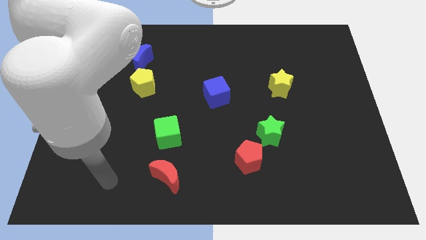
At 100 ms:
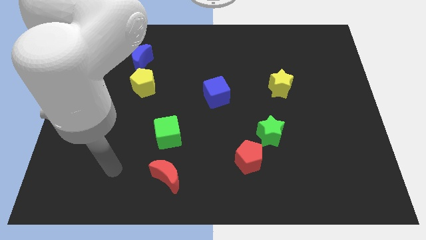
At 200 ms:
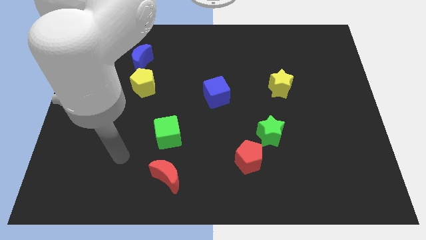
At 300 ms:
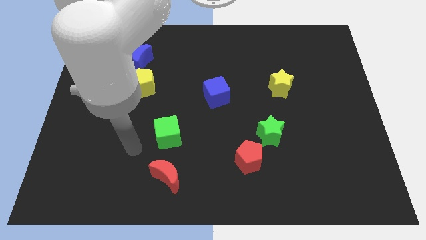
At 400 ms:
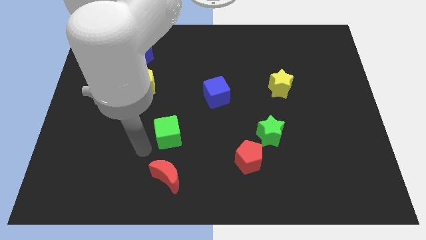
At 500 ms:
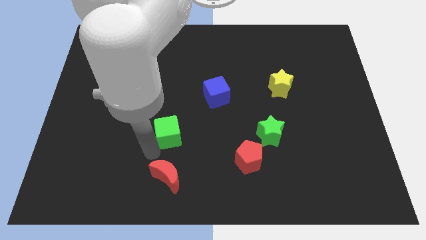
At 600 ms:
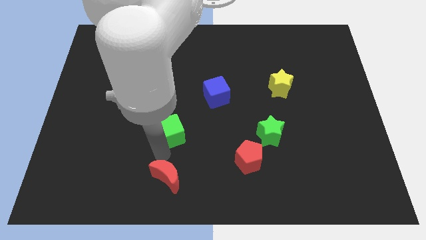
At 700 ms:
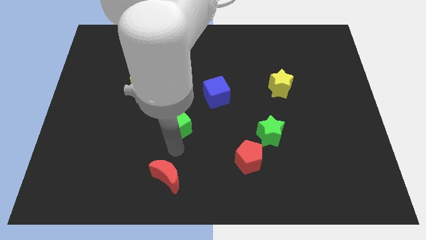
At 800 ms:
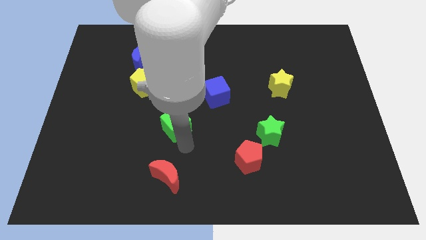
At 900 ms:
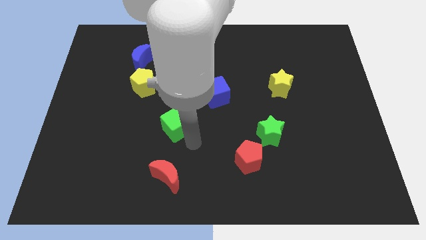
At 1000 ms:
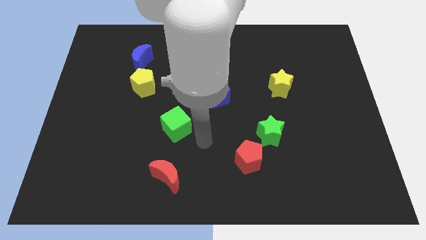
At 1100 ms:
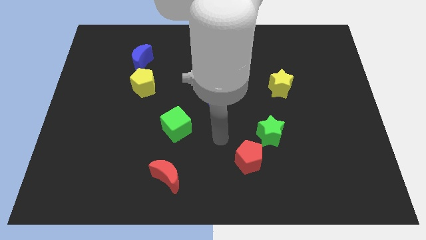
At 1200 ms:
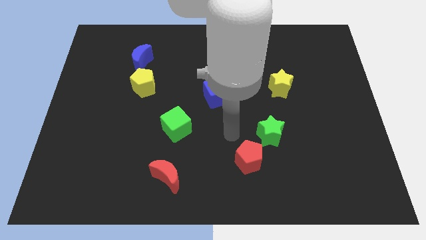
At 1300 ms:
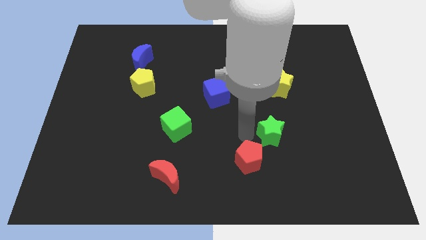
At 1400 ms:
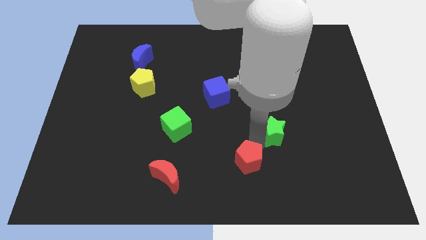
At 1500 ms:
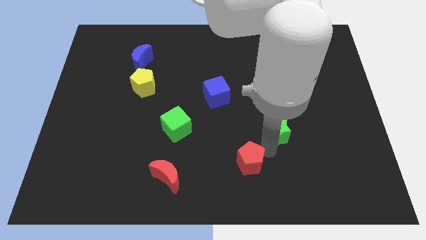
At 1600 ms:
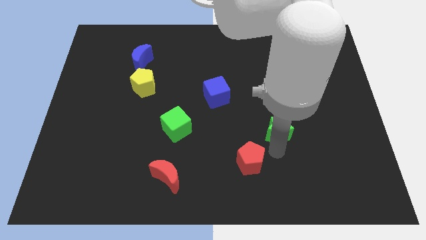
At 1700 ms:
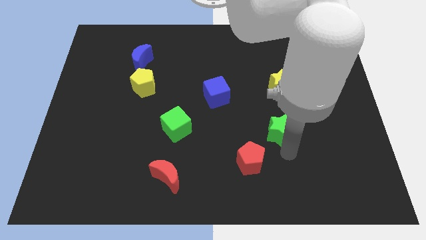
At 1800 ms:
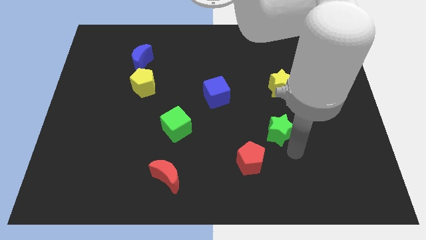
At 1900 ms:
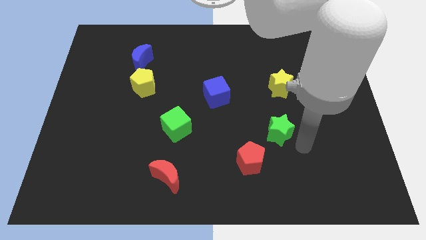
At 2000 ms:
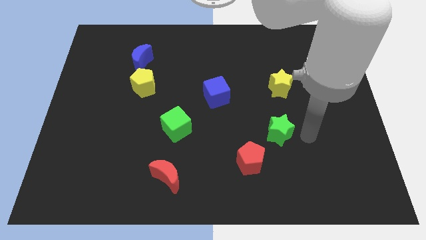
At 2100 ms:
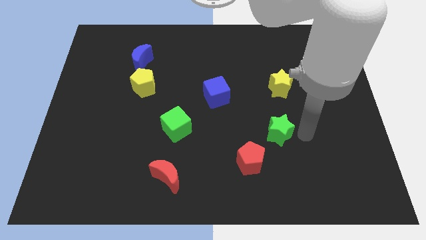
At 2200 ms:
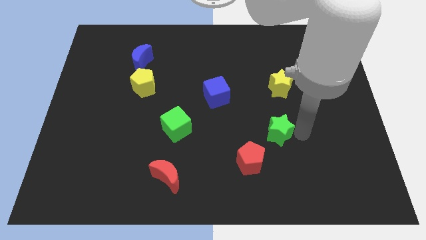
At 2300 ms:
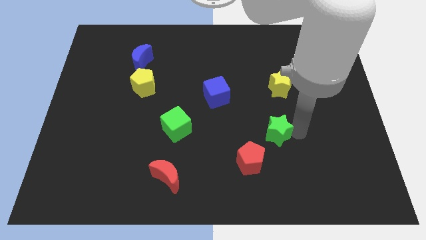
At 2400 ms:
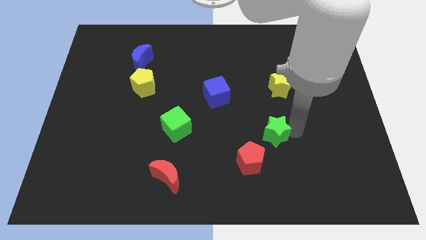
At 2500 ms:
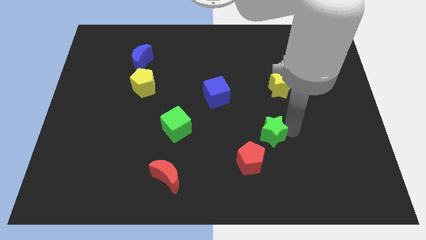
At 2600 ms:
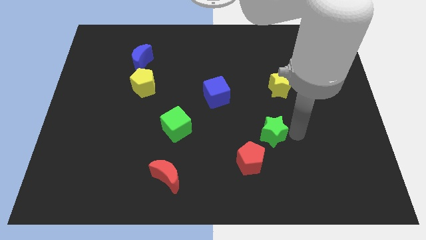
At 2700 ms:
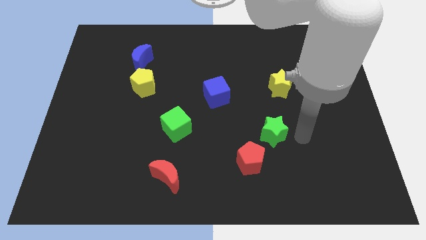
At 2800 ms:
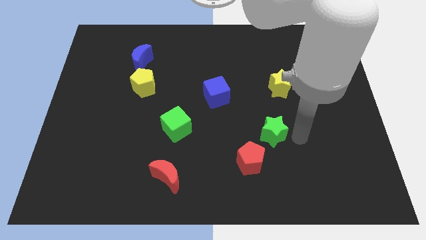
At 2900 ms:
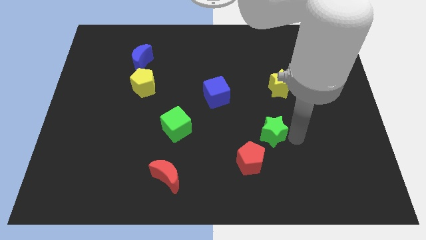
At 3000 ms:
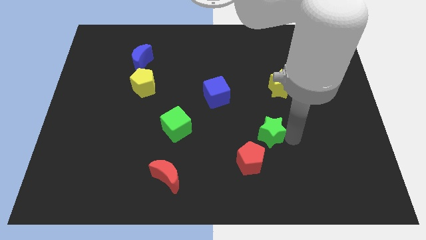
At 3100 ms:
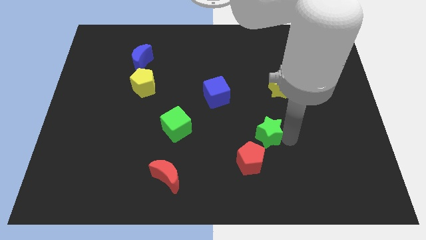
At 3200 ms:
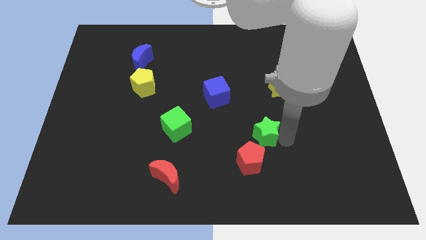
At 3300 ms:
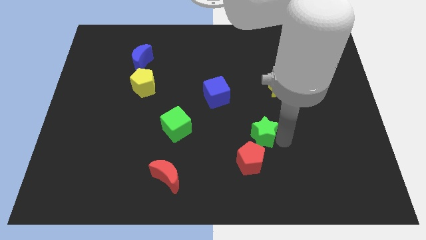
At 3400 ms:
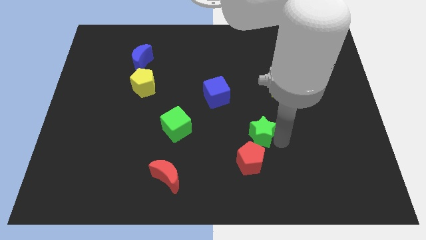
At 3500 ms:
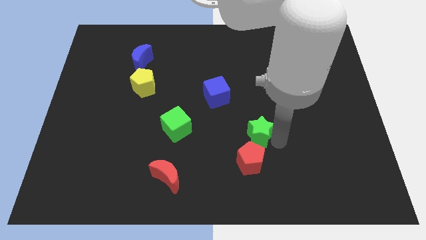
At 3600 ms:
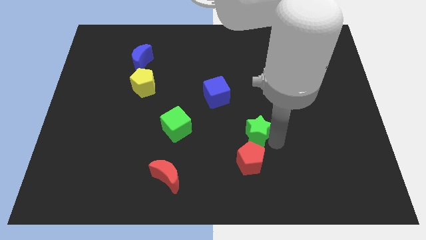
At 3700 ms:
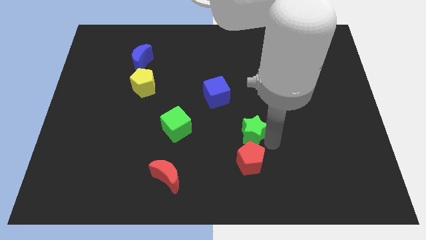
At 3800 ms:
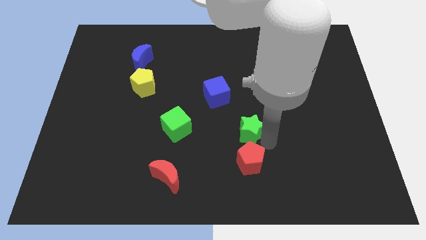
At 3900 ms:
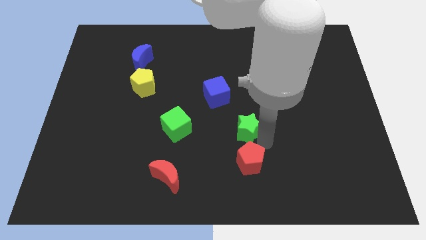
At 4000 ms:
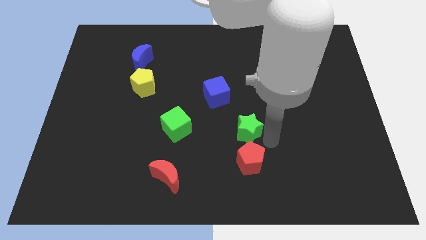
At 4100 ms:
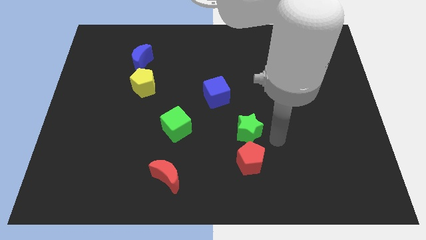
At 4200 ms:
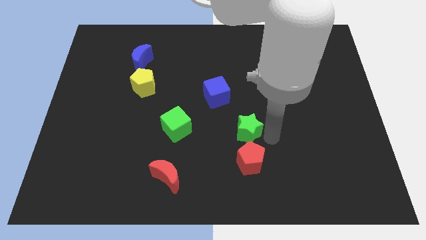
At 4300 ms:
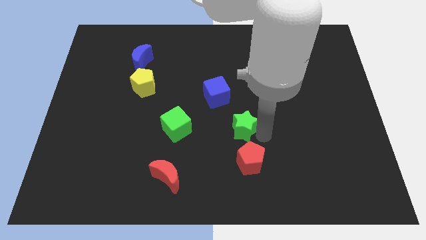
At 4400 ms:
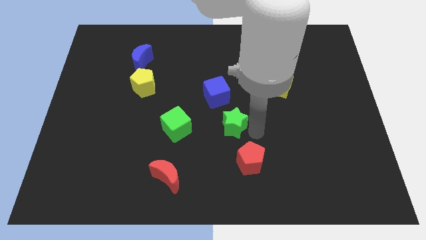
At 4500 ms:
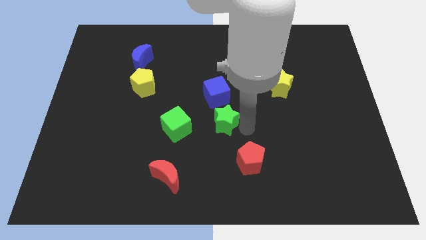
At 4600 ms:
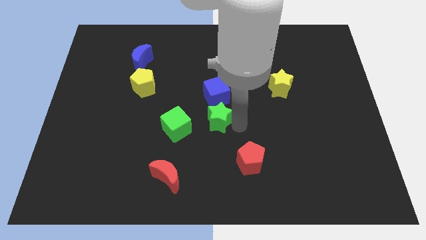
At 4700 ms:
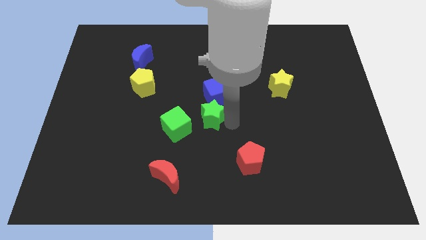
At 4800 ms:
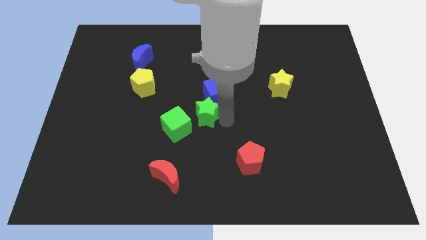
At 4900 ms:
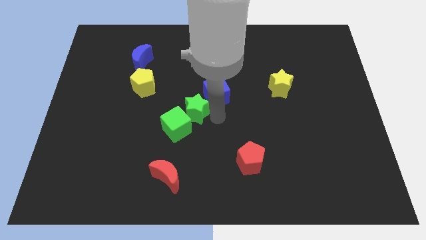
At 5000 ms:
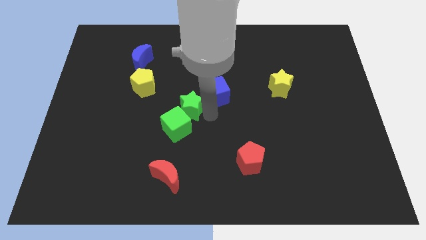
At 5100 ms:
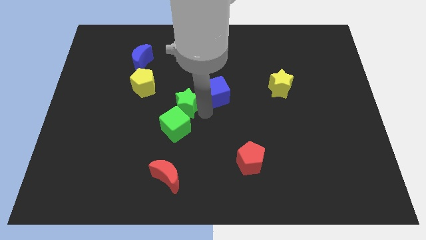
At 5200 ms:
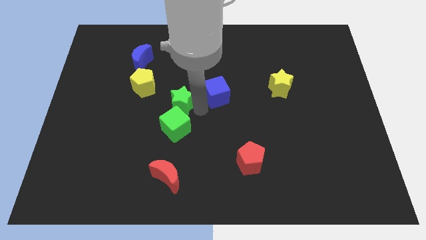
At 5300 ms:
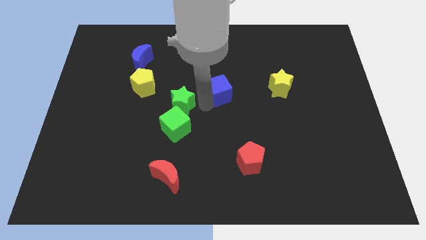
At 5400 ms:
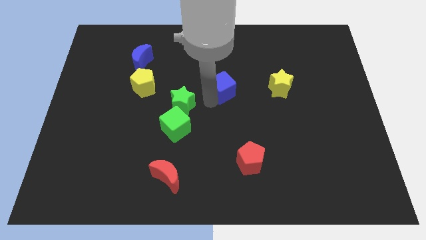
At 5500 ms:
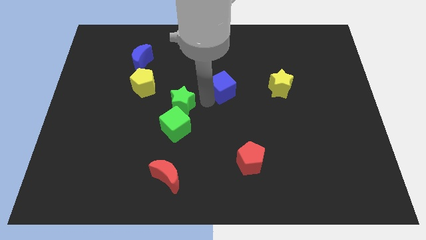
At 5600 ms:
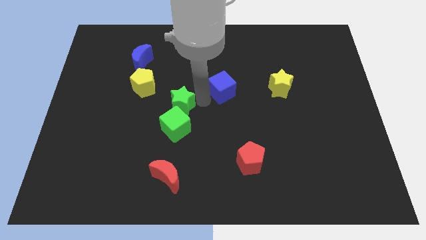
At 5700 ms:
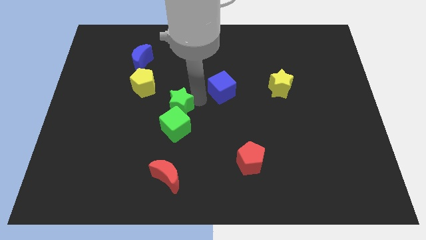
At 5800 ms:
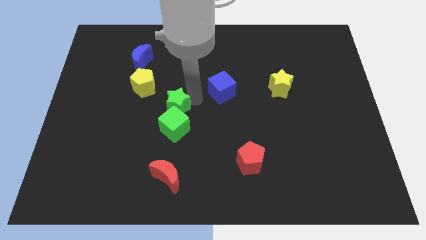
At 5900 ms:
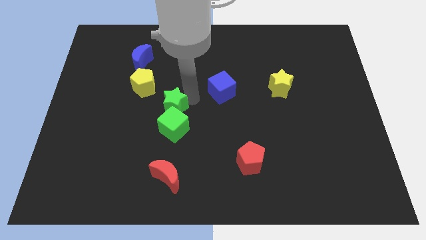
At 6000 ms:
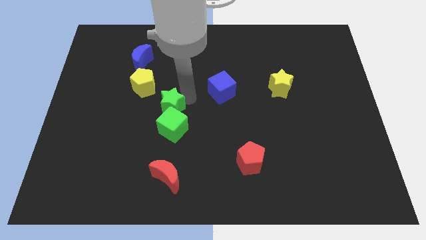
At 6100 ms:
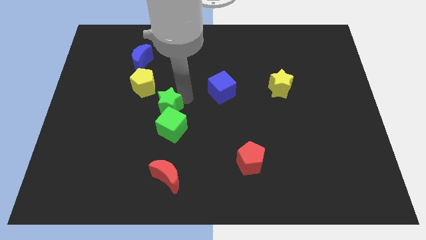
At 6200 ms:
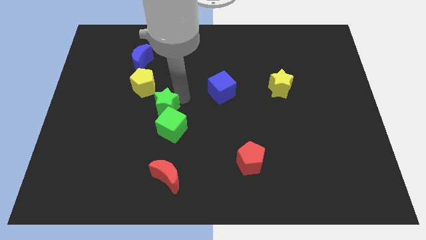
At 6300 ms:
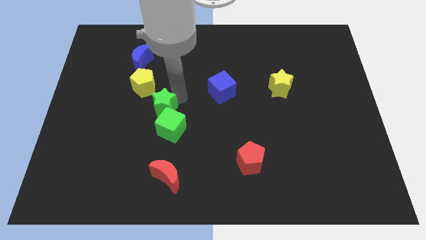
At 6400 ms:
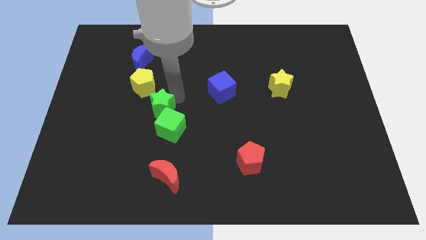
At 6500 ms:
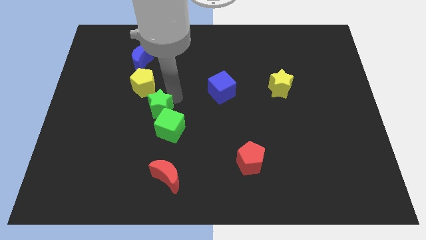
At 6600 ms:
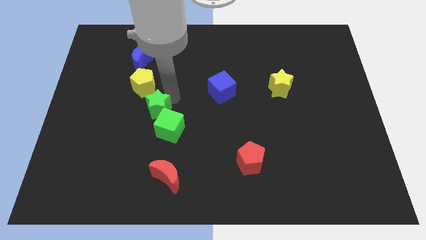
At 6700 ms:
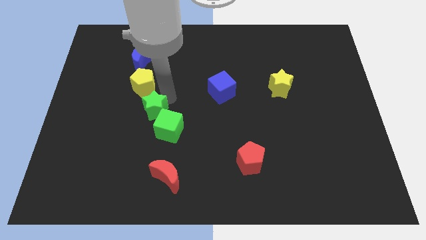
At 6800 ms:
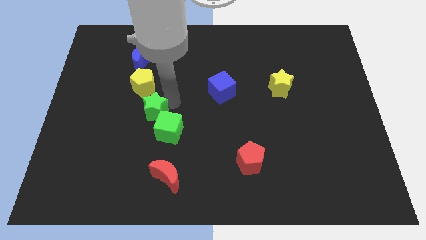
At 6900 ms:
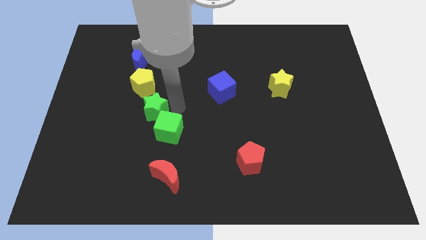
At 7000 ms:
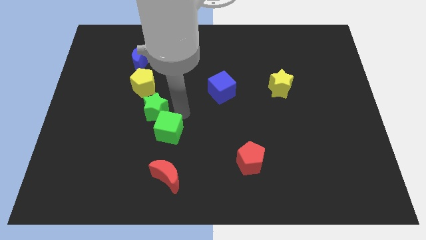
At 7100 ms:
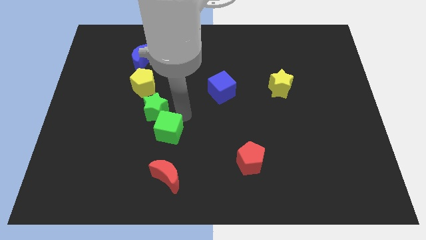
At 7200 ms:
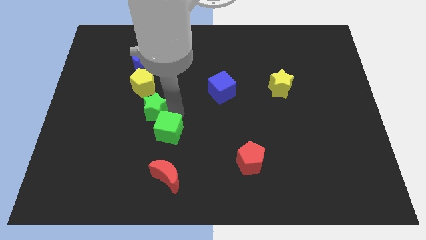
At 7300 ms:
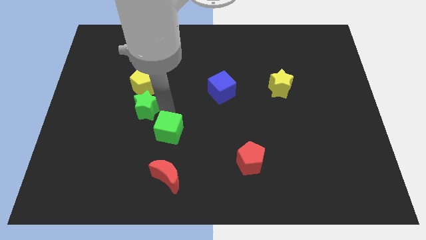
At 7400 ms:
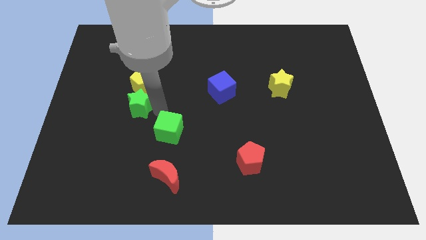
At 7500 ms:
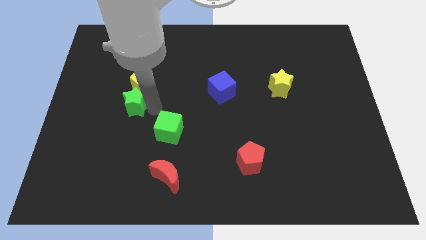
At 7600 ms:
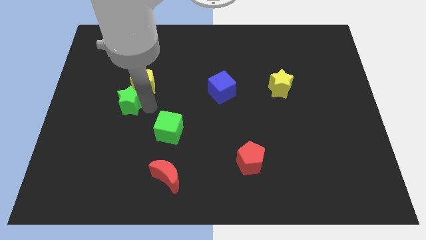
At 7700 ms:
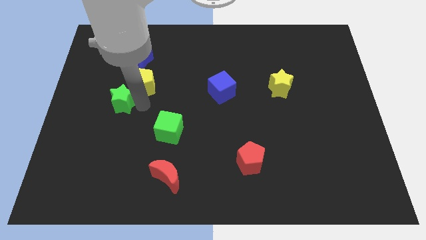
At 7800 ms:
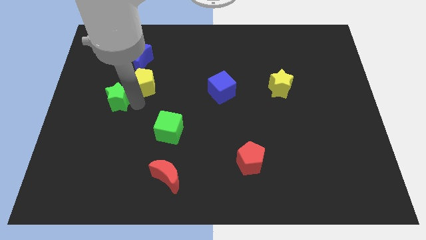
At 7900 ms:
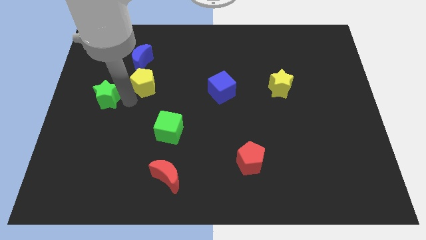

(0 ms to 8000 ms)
push the green star to the center left
